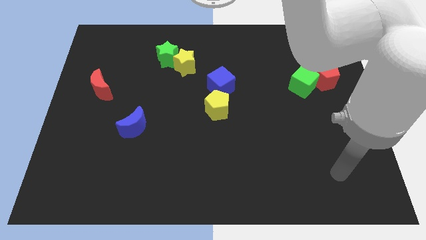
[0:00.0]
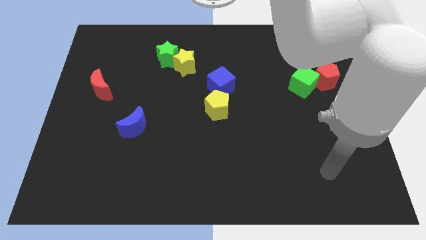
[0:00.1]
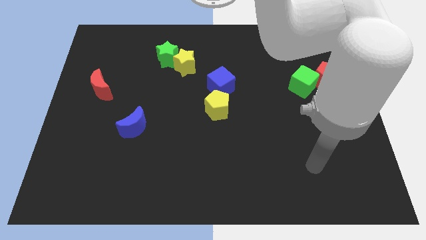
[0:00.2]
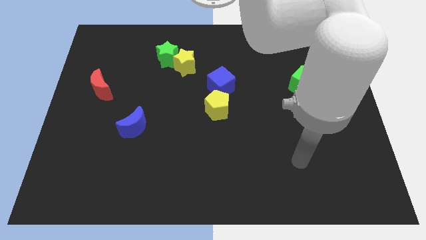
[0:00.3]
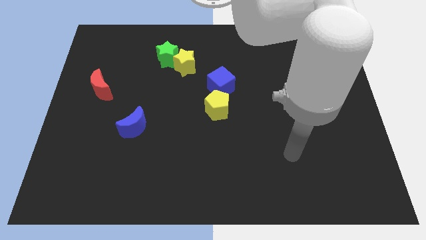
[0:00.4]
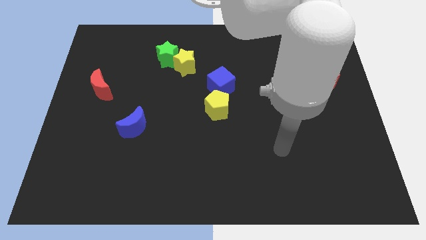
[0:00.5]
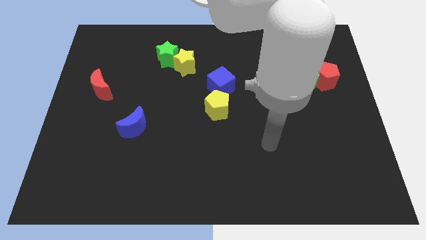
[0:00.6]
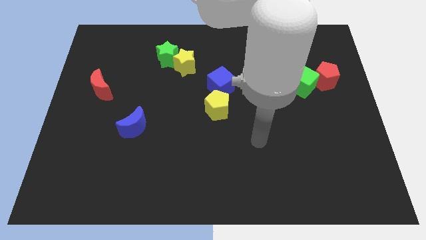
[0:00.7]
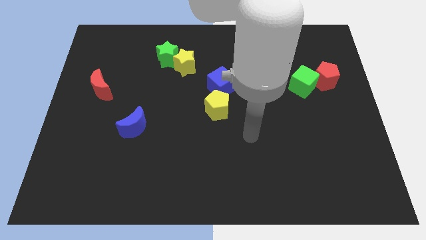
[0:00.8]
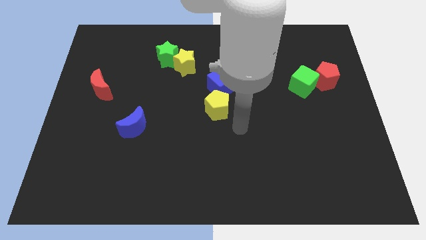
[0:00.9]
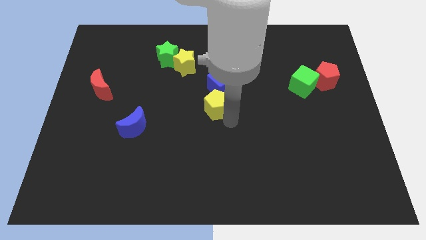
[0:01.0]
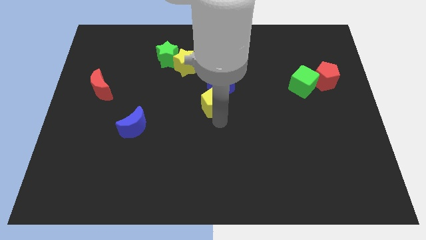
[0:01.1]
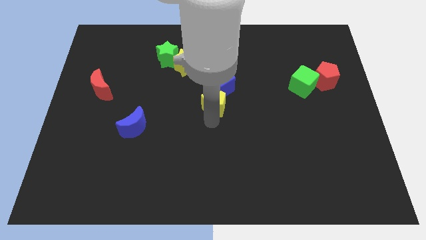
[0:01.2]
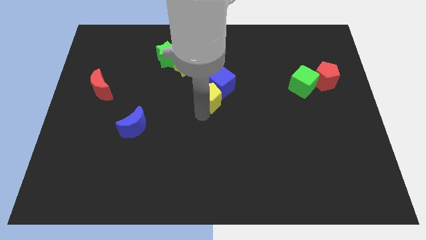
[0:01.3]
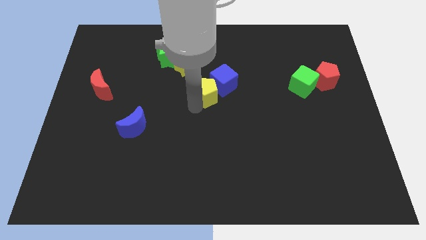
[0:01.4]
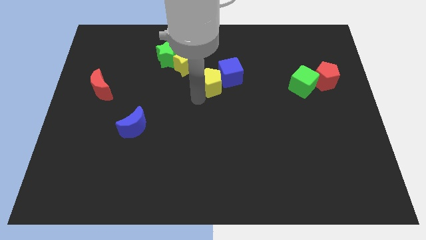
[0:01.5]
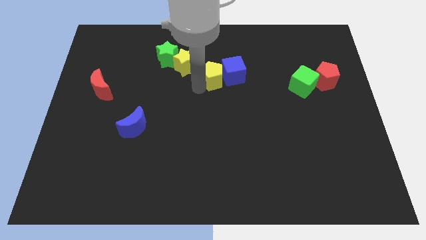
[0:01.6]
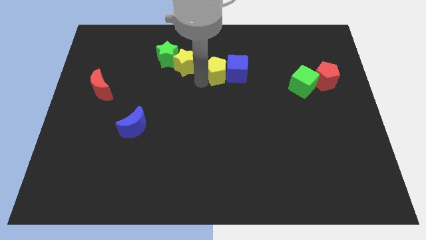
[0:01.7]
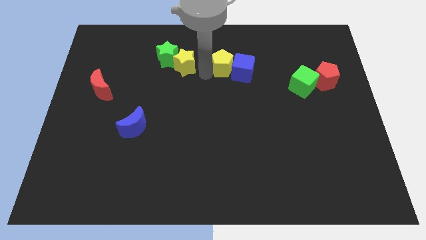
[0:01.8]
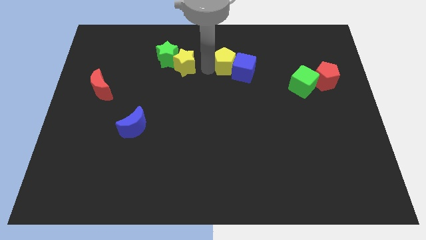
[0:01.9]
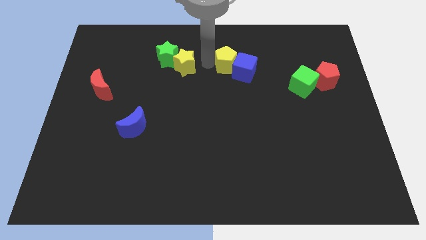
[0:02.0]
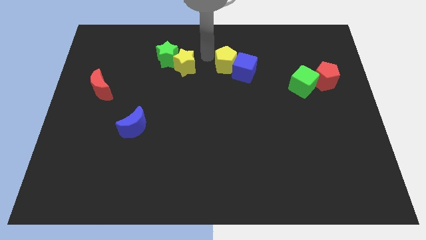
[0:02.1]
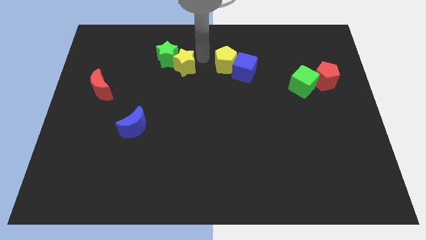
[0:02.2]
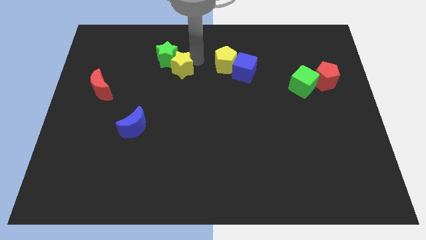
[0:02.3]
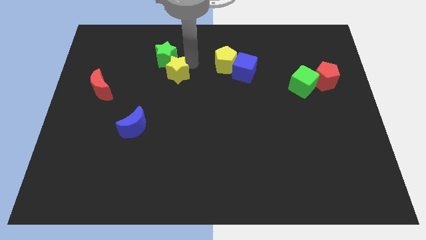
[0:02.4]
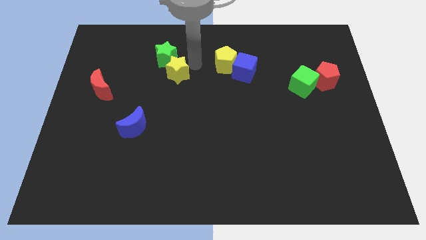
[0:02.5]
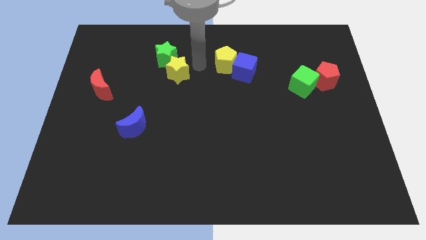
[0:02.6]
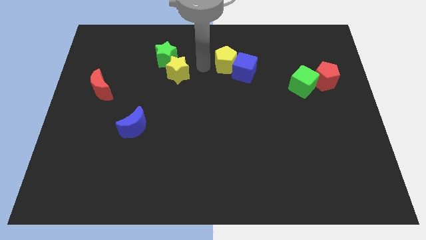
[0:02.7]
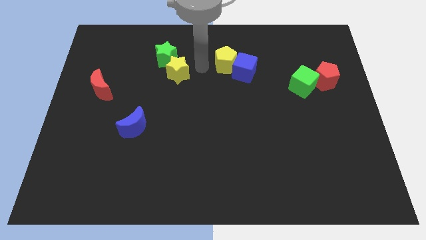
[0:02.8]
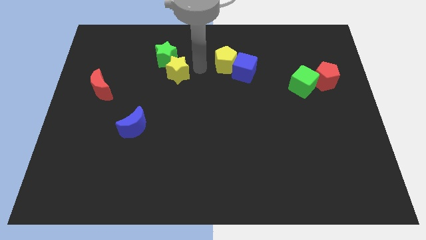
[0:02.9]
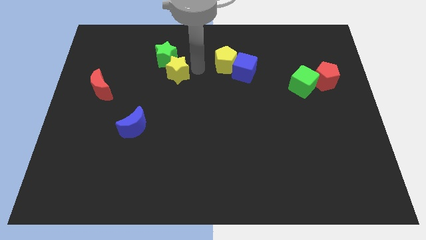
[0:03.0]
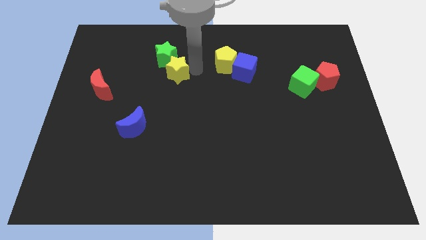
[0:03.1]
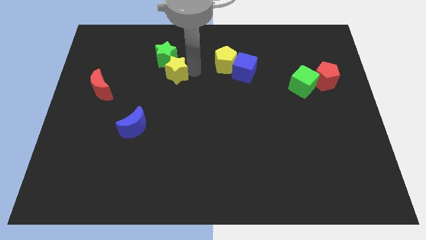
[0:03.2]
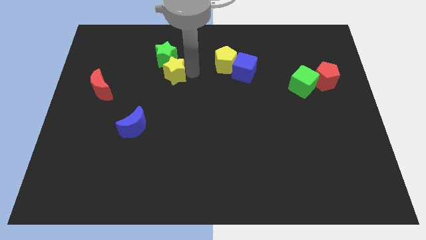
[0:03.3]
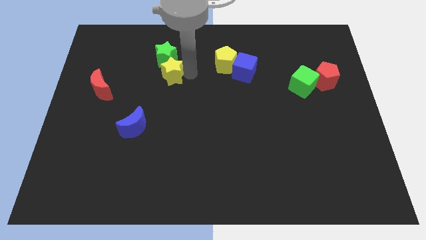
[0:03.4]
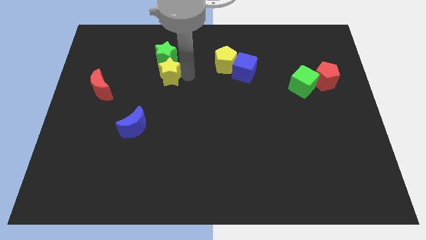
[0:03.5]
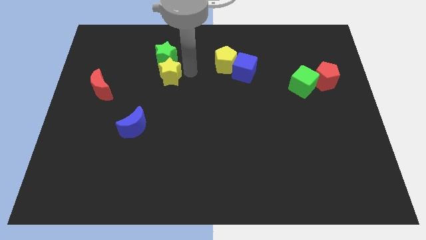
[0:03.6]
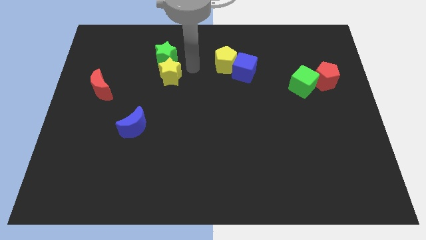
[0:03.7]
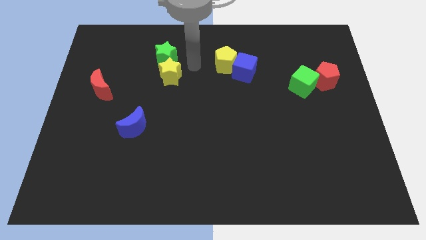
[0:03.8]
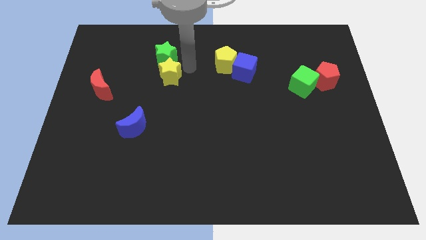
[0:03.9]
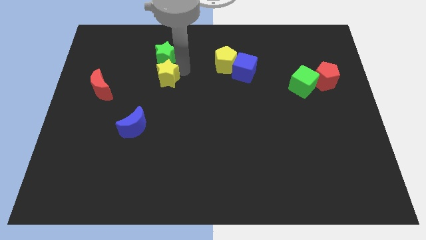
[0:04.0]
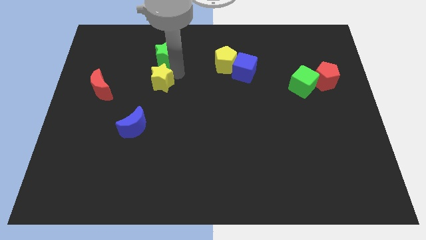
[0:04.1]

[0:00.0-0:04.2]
move the yellow star diagonally down and to the left a little

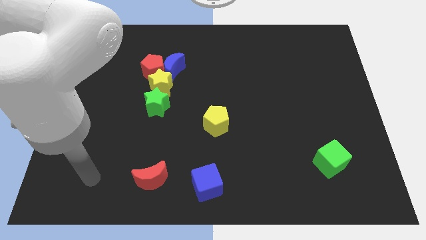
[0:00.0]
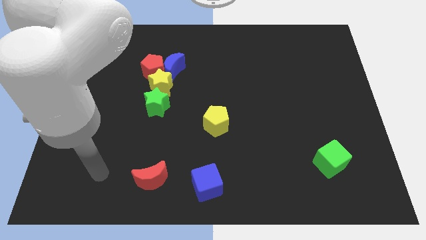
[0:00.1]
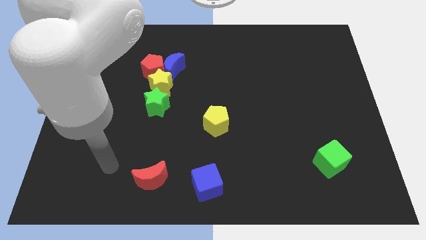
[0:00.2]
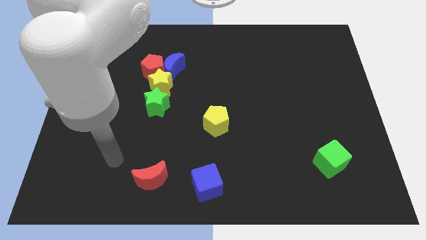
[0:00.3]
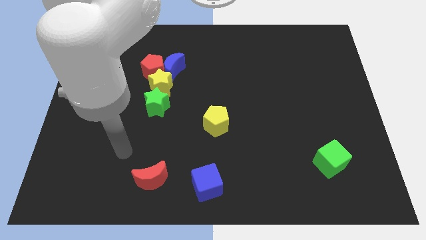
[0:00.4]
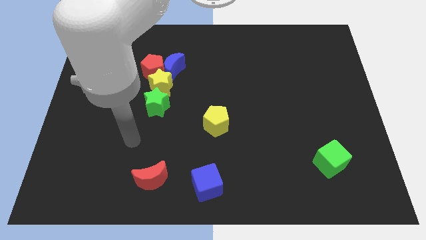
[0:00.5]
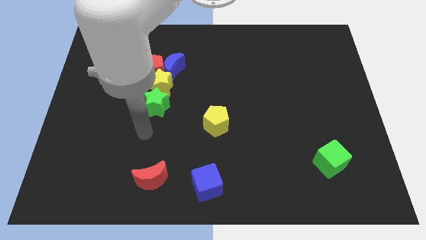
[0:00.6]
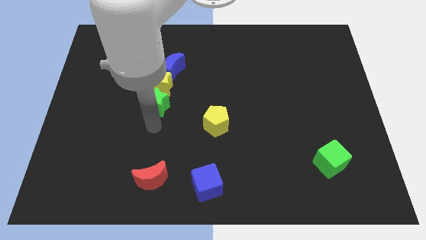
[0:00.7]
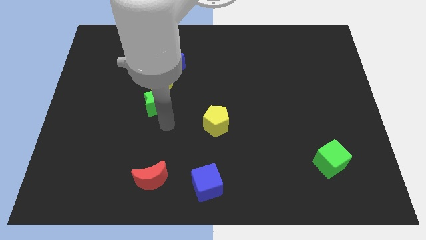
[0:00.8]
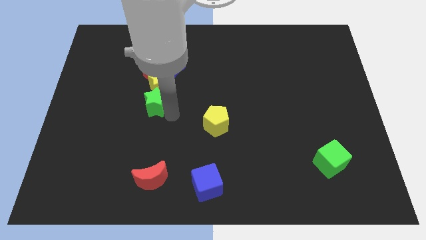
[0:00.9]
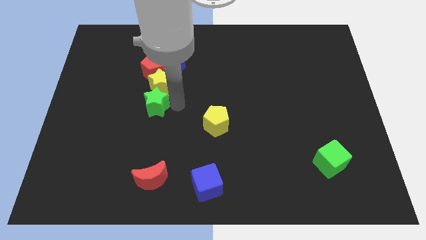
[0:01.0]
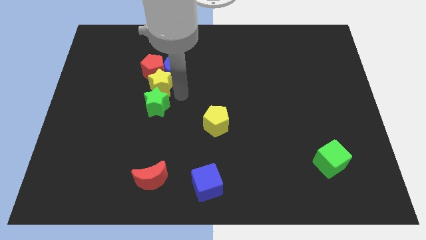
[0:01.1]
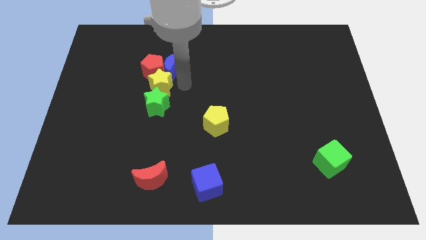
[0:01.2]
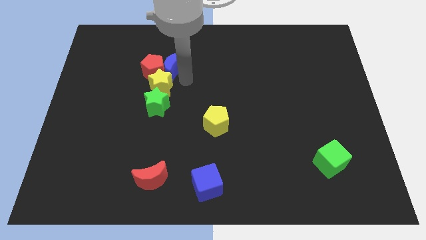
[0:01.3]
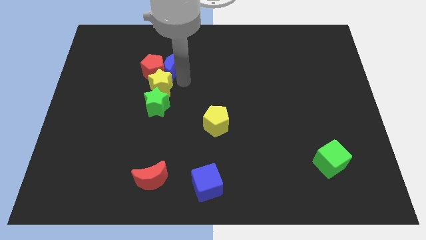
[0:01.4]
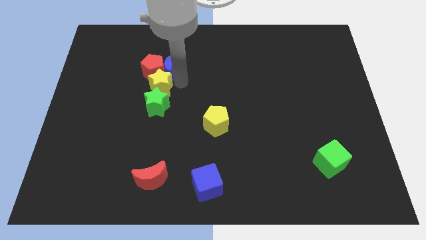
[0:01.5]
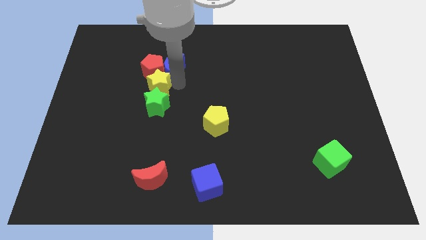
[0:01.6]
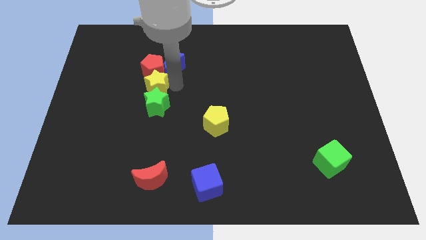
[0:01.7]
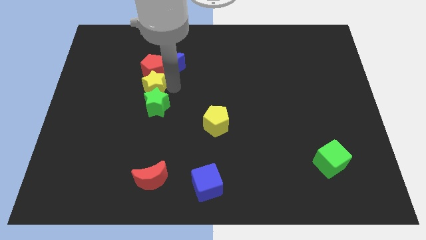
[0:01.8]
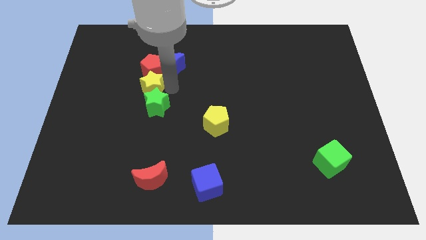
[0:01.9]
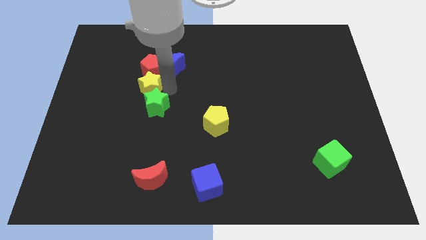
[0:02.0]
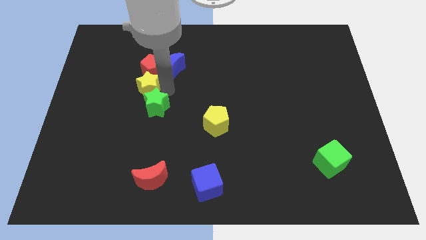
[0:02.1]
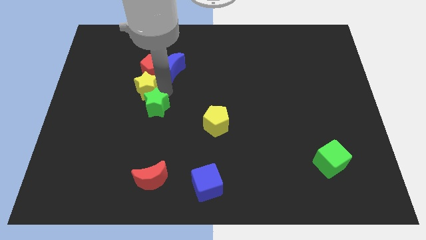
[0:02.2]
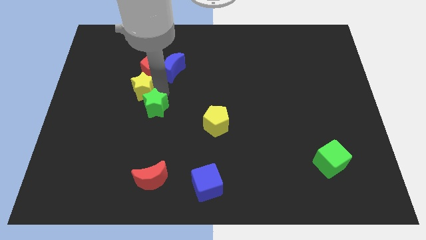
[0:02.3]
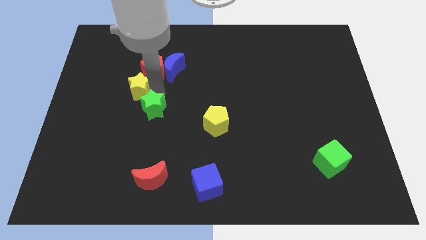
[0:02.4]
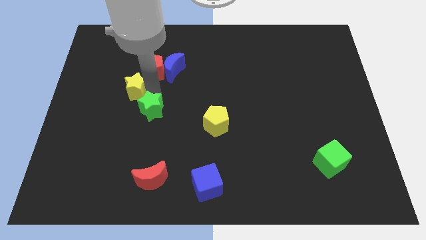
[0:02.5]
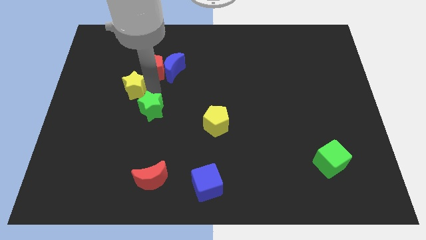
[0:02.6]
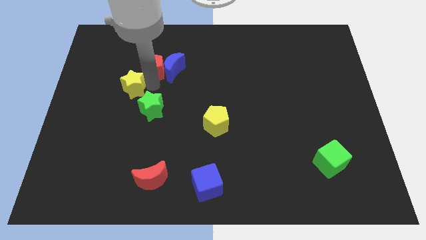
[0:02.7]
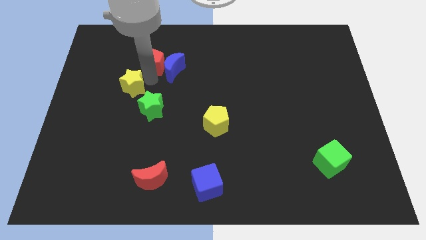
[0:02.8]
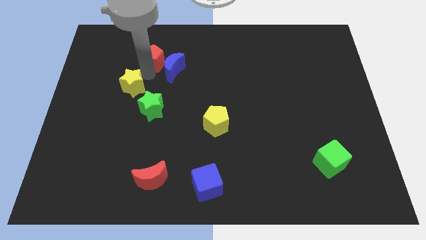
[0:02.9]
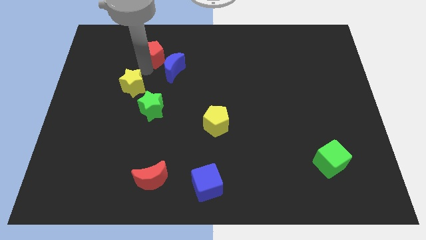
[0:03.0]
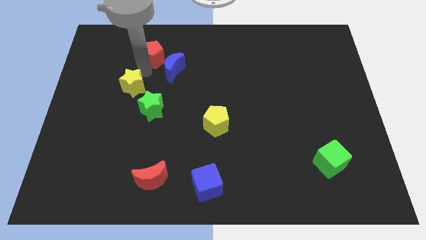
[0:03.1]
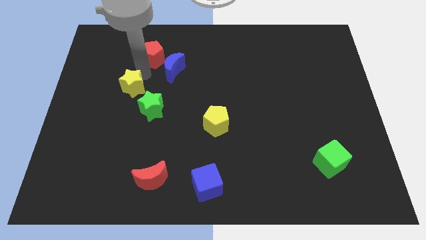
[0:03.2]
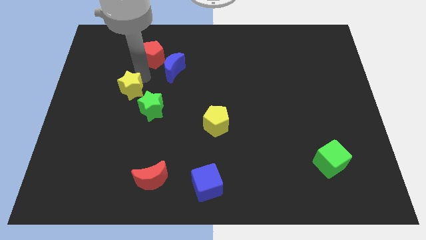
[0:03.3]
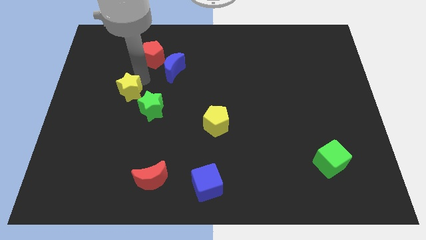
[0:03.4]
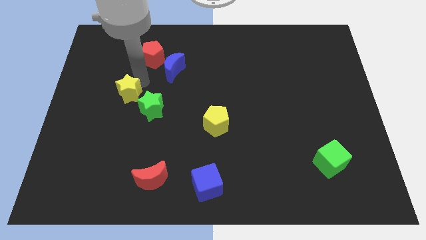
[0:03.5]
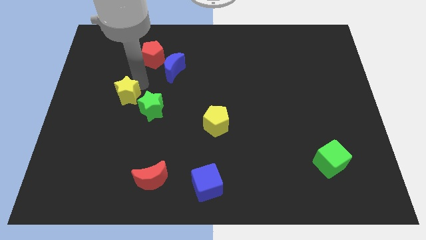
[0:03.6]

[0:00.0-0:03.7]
slide the yellow star down and then to the left a little bit
